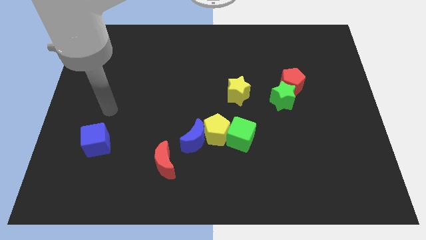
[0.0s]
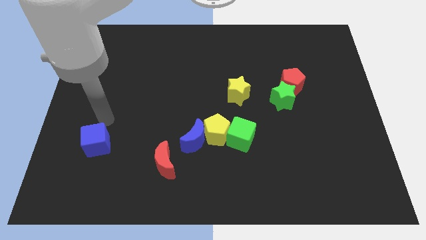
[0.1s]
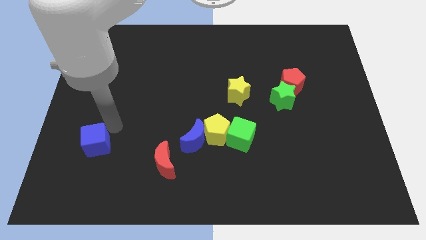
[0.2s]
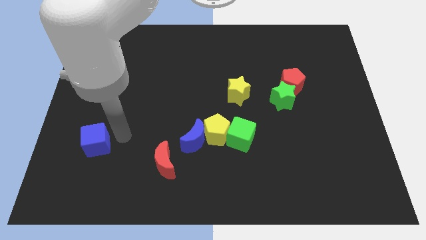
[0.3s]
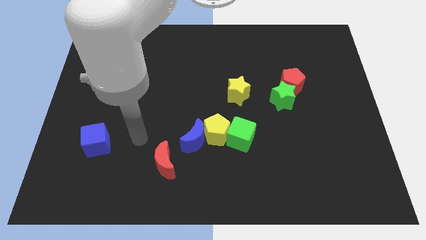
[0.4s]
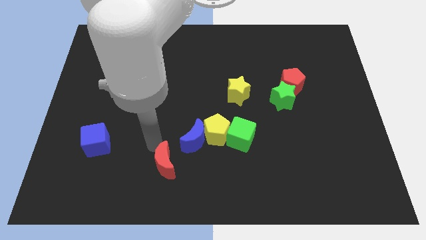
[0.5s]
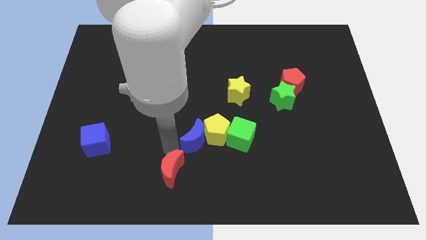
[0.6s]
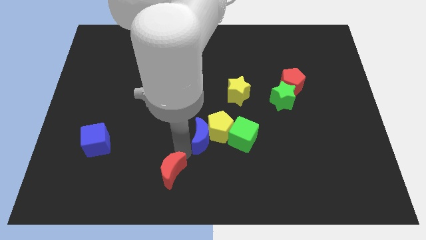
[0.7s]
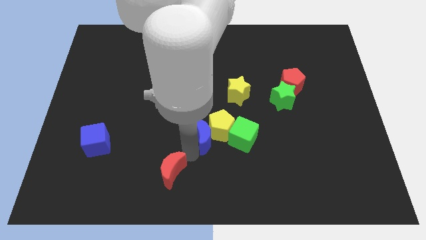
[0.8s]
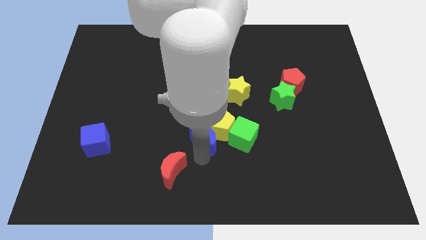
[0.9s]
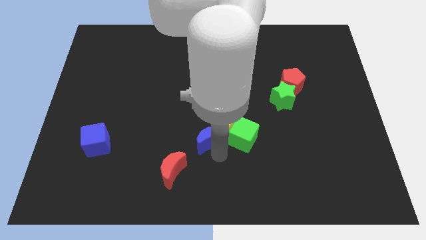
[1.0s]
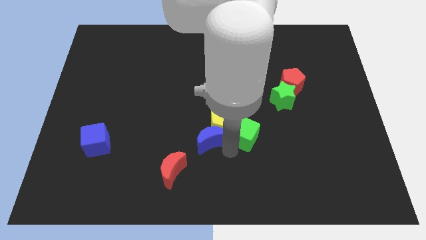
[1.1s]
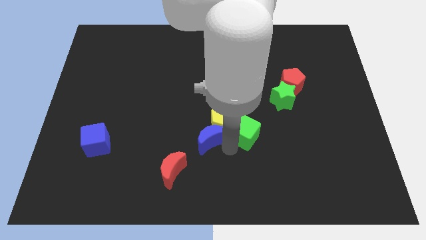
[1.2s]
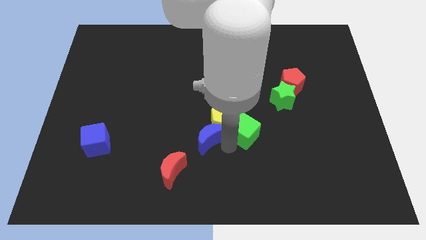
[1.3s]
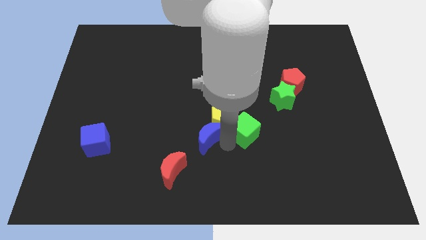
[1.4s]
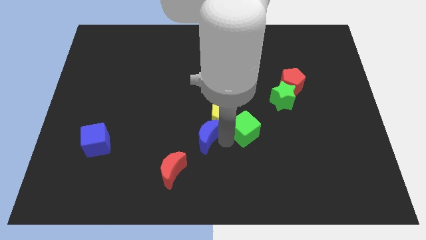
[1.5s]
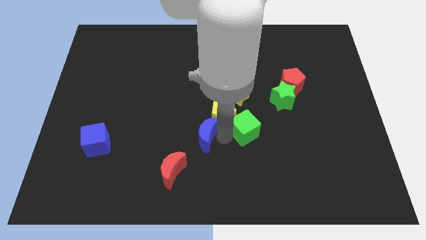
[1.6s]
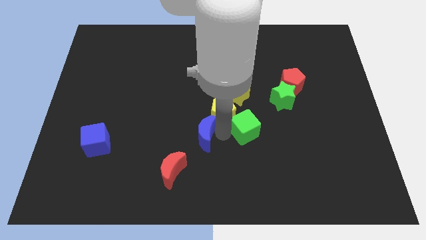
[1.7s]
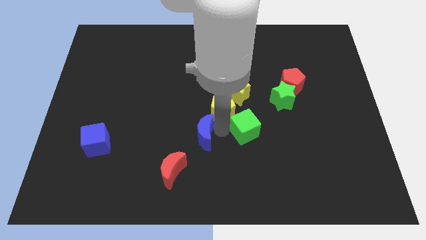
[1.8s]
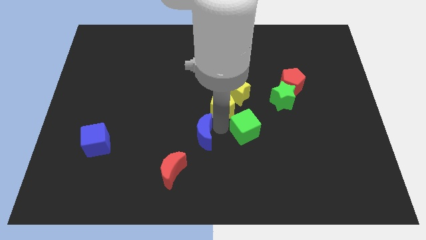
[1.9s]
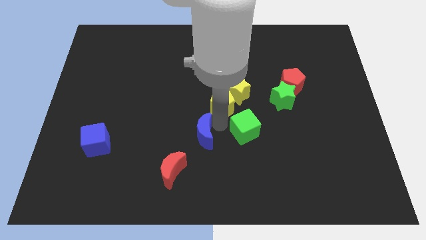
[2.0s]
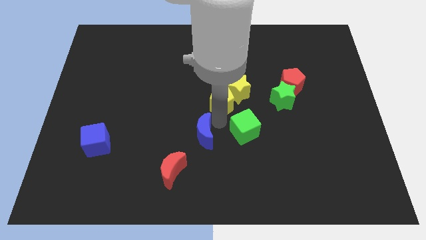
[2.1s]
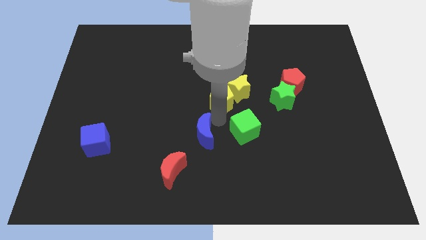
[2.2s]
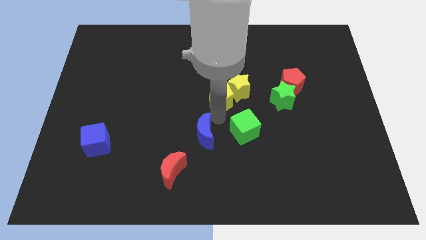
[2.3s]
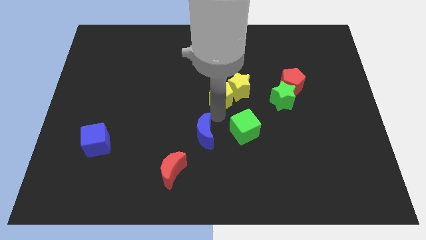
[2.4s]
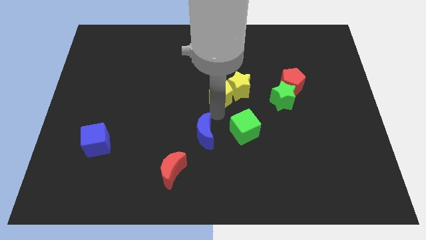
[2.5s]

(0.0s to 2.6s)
move the yellow pentagon away from the blue moon and green cube

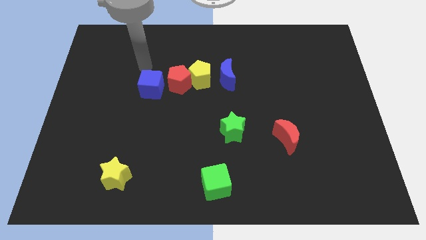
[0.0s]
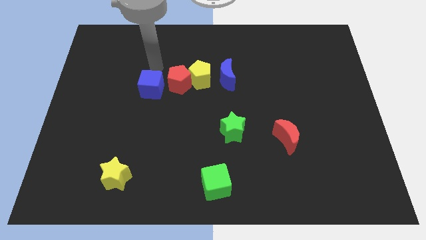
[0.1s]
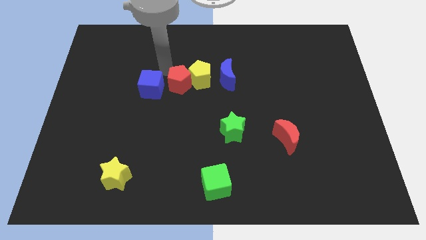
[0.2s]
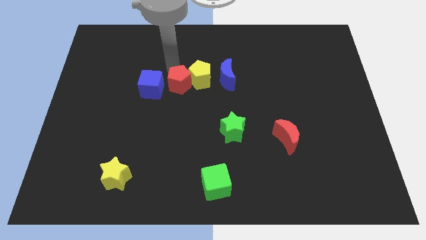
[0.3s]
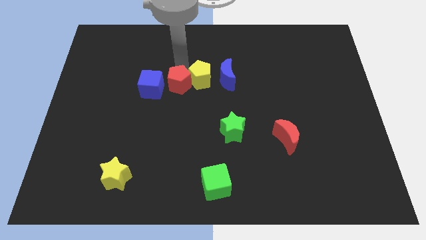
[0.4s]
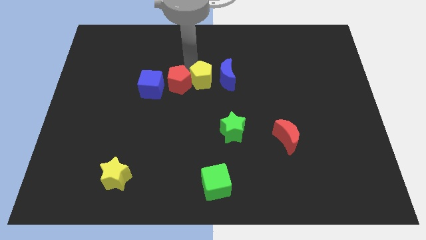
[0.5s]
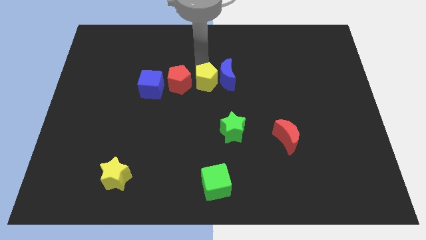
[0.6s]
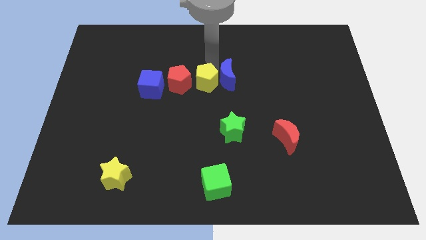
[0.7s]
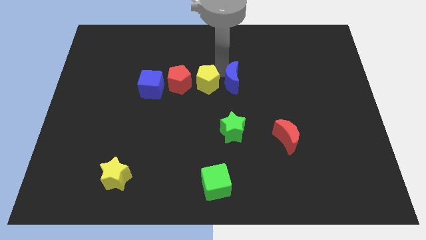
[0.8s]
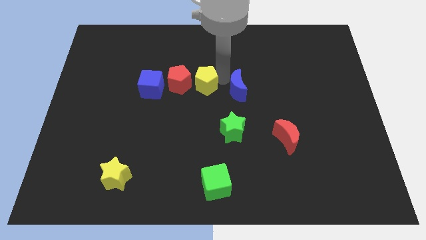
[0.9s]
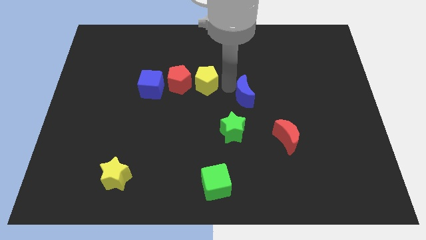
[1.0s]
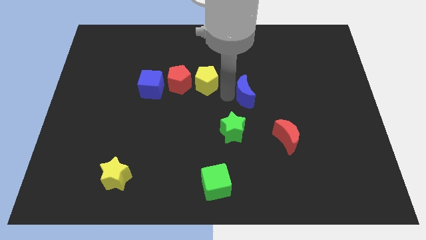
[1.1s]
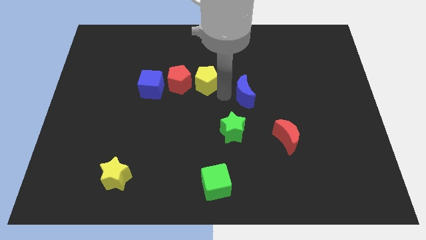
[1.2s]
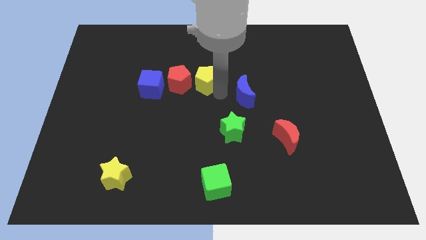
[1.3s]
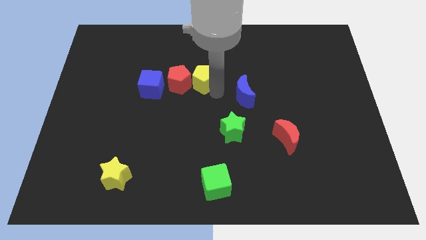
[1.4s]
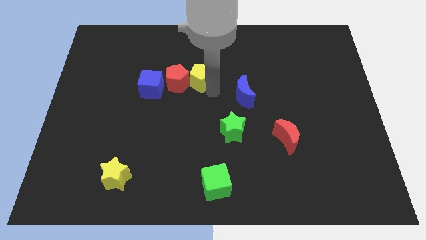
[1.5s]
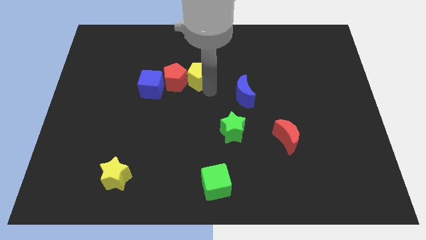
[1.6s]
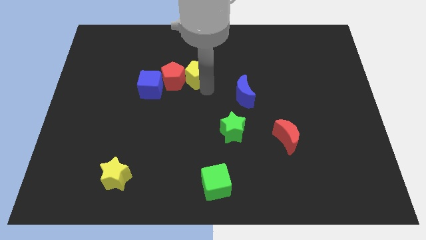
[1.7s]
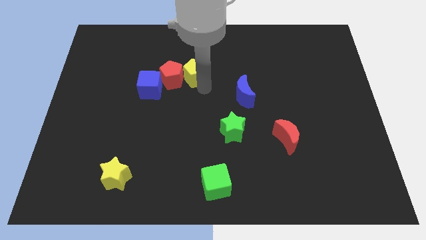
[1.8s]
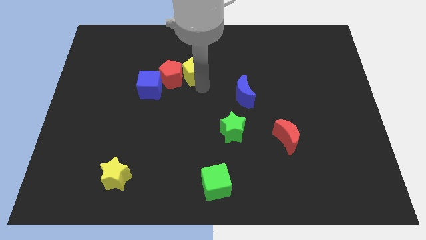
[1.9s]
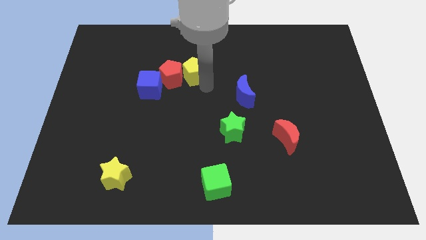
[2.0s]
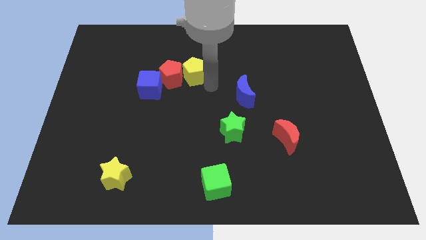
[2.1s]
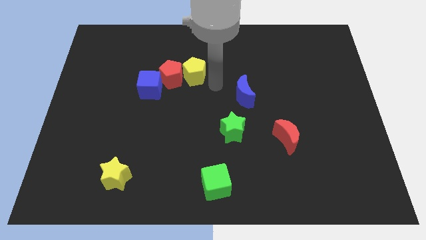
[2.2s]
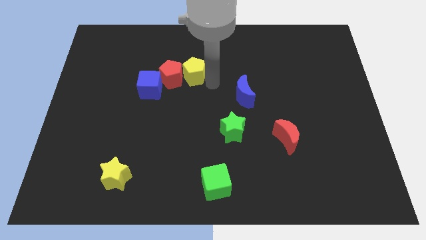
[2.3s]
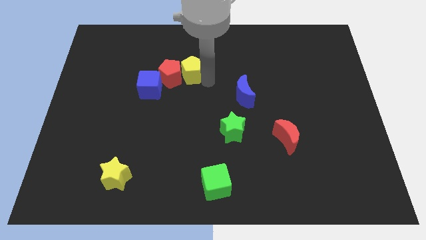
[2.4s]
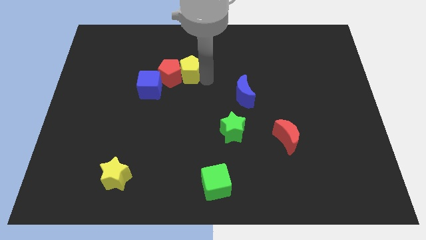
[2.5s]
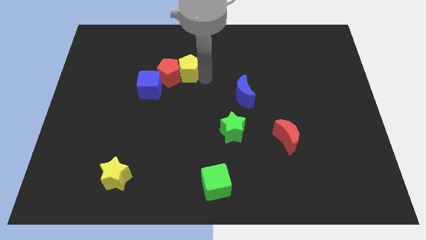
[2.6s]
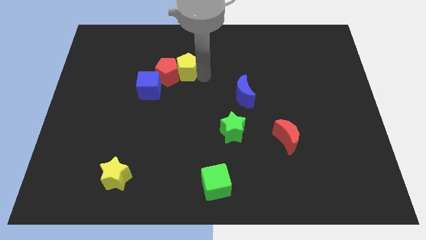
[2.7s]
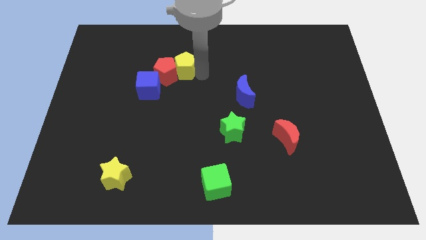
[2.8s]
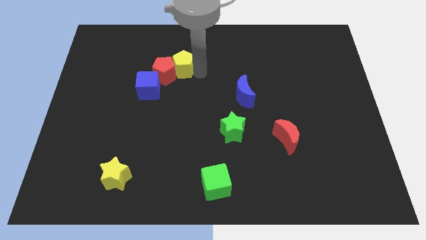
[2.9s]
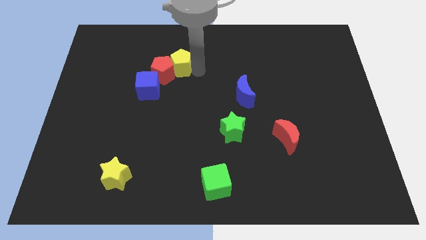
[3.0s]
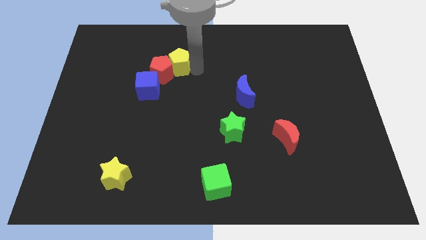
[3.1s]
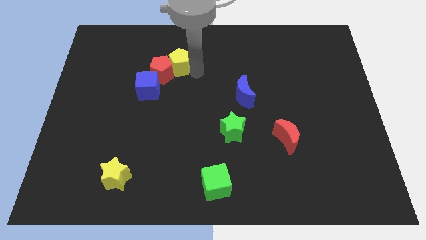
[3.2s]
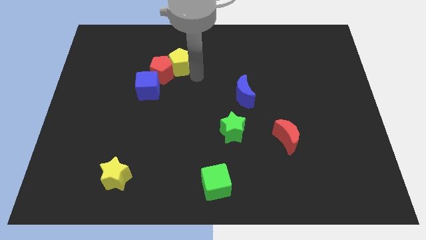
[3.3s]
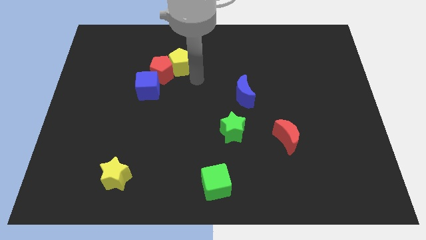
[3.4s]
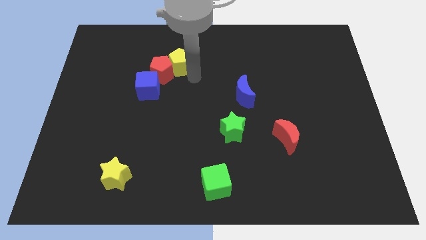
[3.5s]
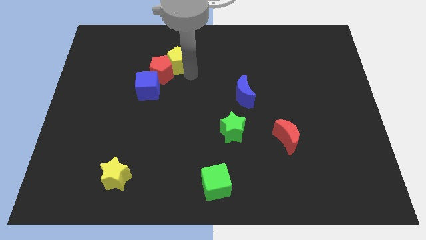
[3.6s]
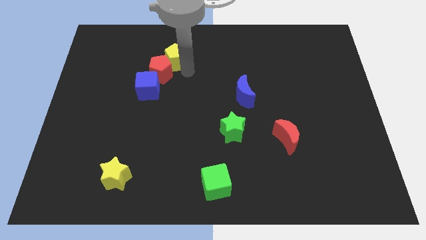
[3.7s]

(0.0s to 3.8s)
move the yellow pentagon away from the red pentagon and blue moon

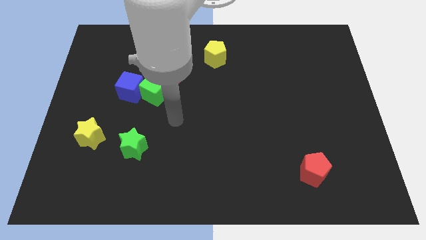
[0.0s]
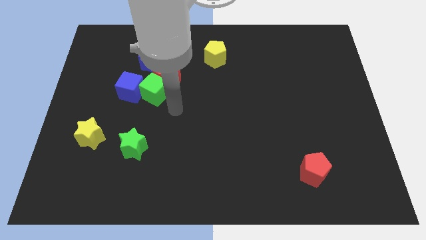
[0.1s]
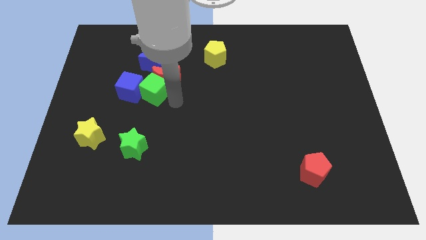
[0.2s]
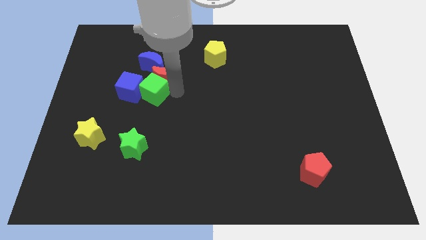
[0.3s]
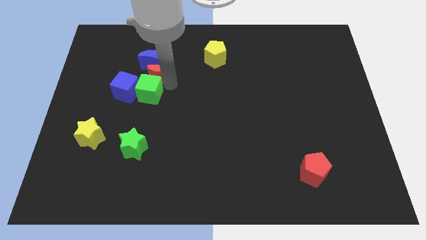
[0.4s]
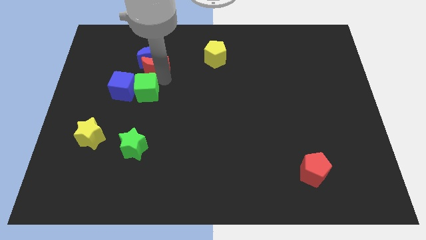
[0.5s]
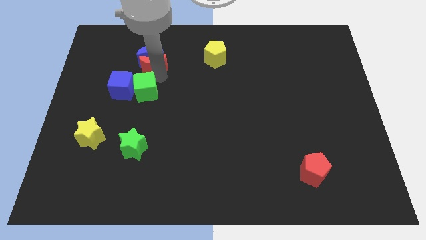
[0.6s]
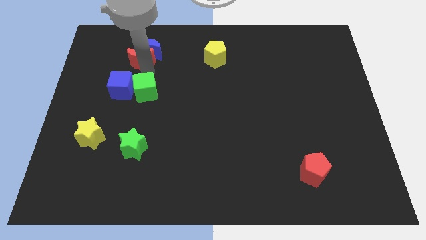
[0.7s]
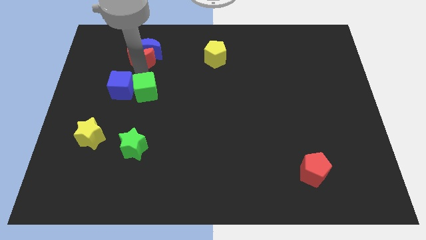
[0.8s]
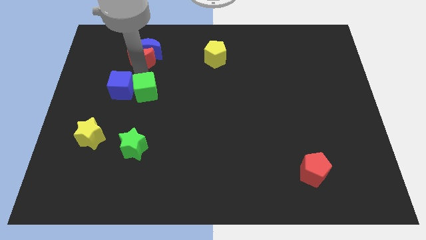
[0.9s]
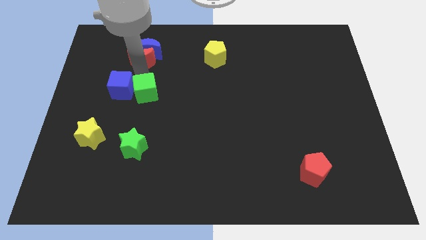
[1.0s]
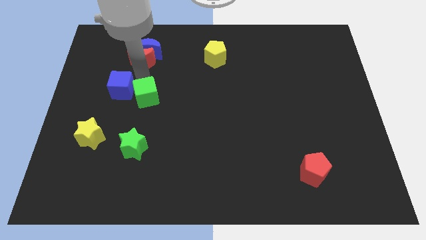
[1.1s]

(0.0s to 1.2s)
separate the green cube from the clump

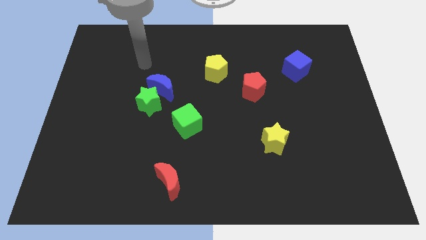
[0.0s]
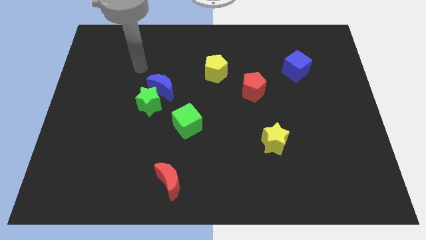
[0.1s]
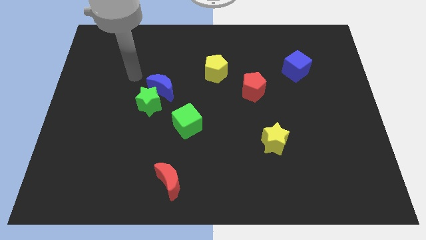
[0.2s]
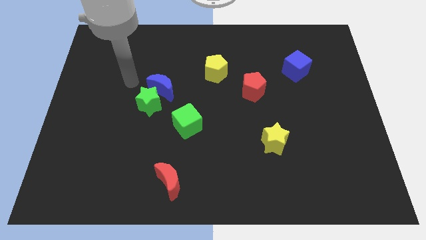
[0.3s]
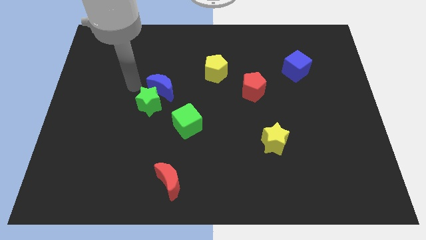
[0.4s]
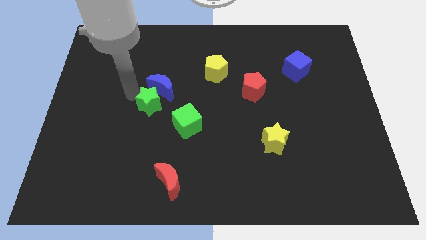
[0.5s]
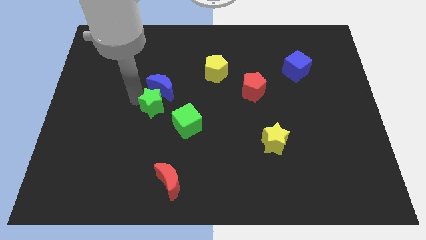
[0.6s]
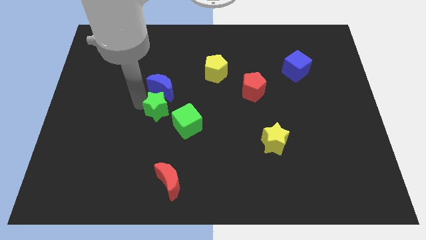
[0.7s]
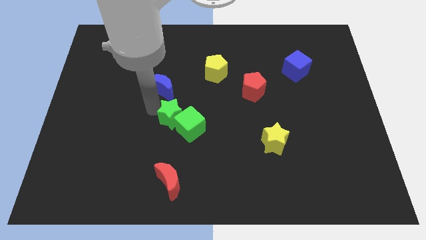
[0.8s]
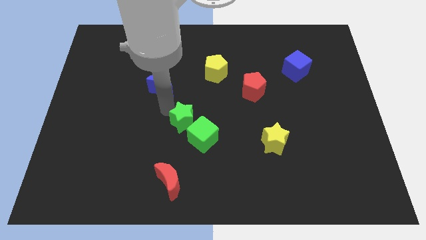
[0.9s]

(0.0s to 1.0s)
move the blue moon away from the green star

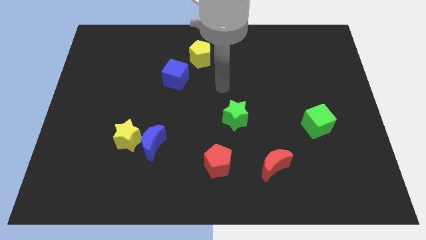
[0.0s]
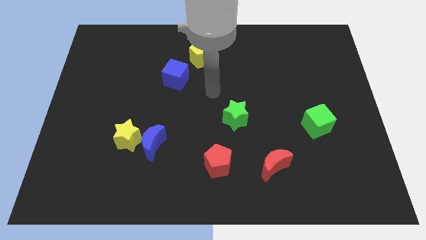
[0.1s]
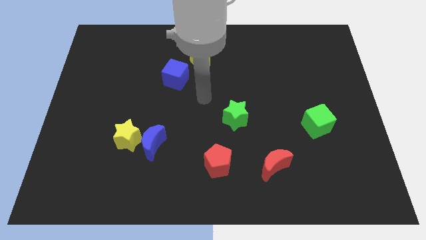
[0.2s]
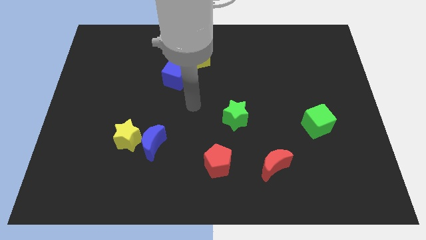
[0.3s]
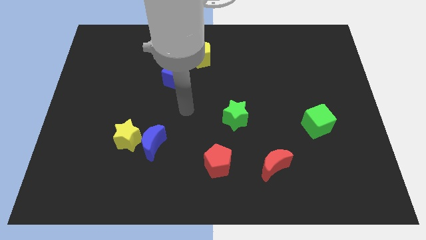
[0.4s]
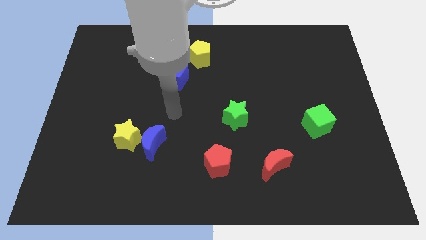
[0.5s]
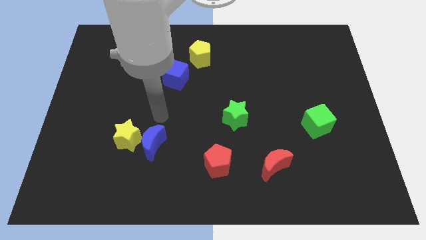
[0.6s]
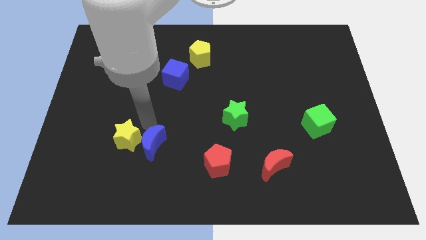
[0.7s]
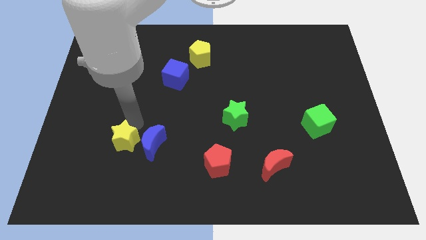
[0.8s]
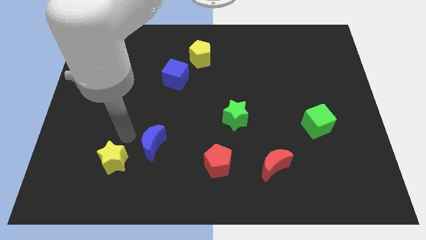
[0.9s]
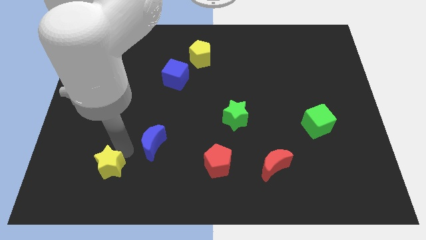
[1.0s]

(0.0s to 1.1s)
pull the blue moon apart from the yellow star
